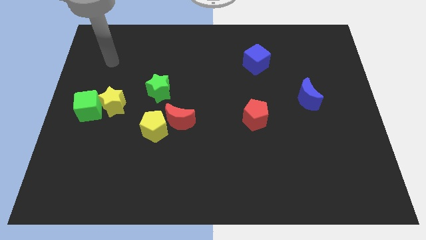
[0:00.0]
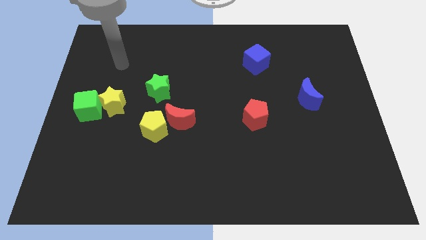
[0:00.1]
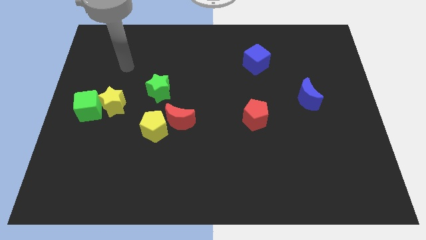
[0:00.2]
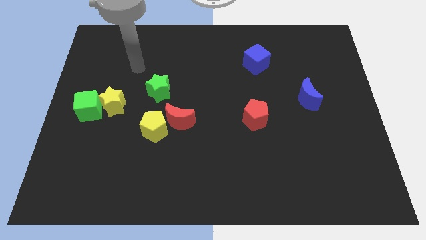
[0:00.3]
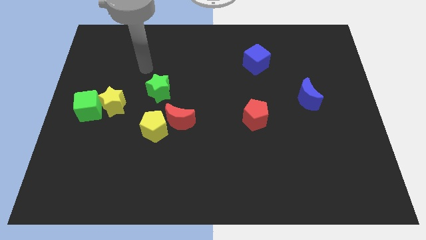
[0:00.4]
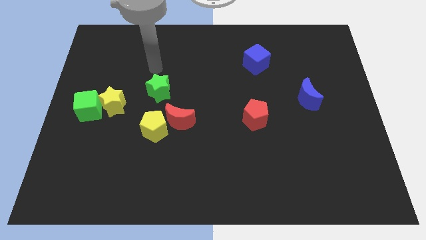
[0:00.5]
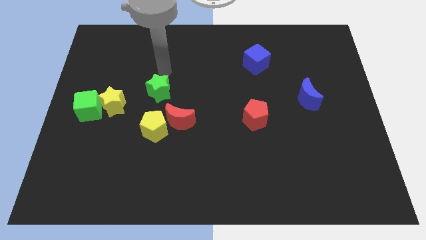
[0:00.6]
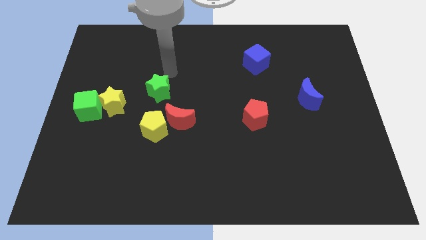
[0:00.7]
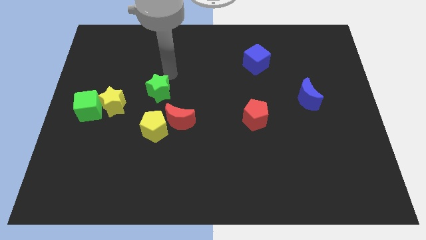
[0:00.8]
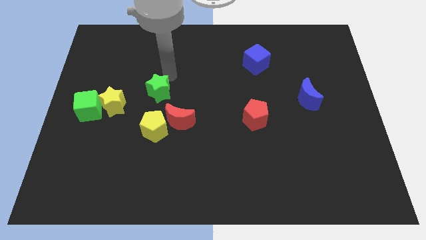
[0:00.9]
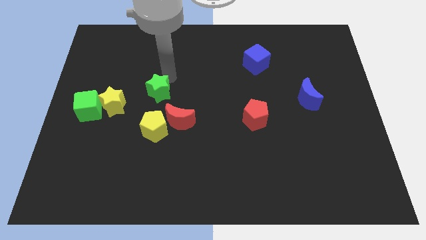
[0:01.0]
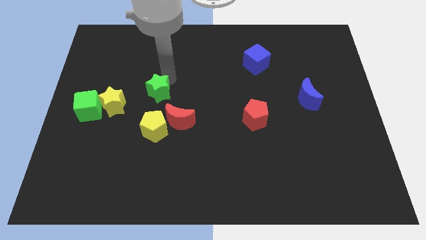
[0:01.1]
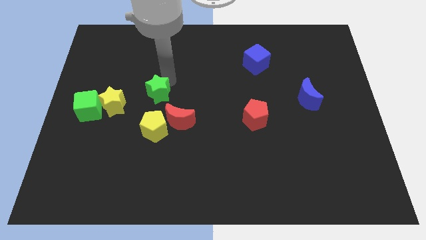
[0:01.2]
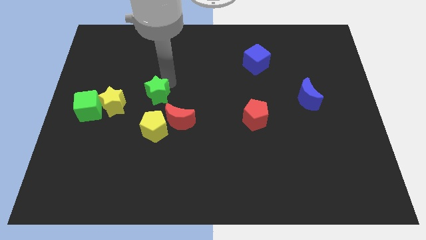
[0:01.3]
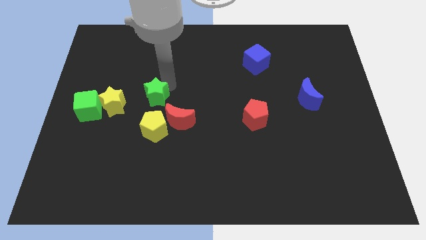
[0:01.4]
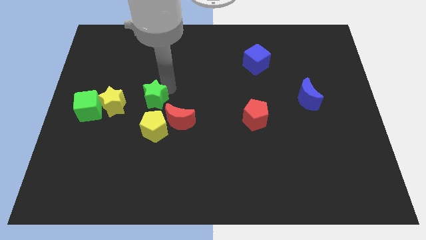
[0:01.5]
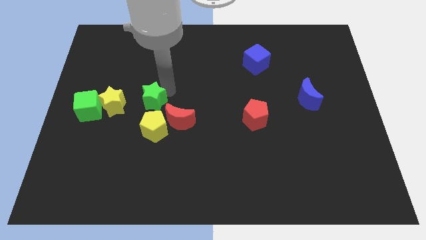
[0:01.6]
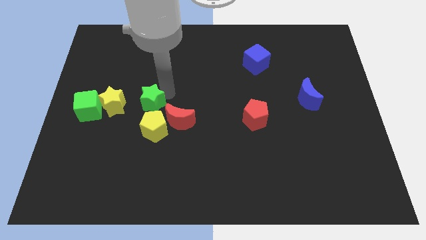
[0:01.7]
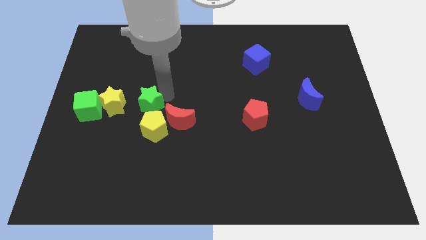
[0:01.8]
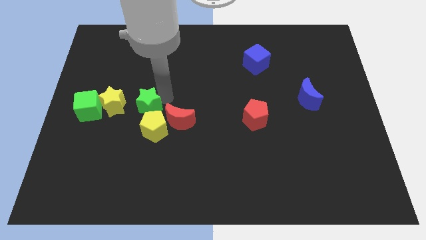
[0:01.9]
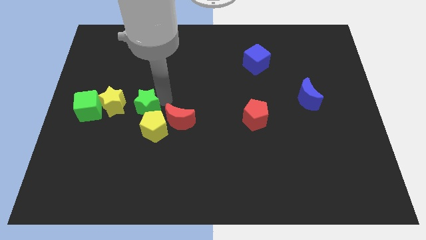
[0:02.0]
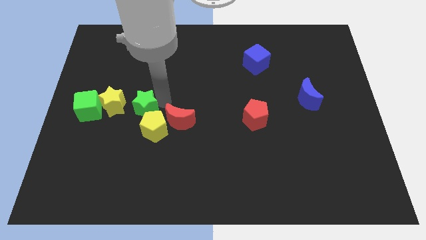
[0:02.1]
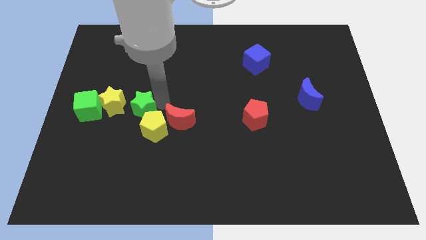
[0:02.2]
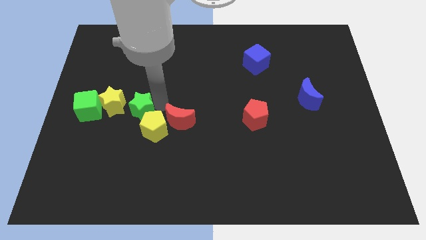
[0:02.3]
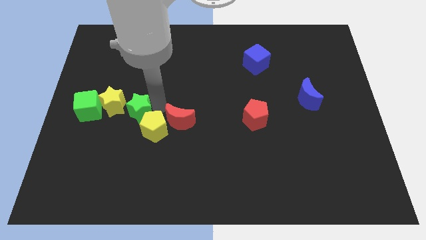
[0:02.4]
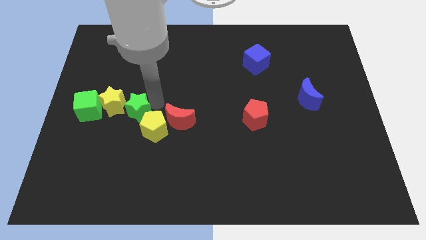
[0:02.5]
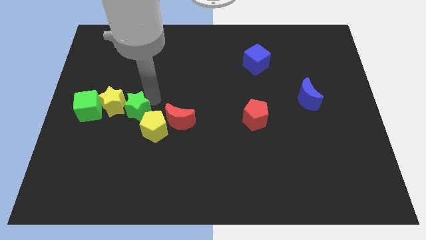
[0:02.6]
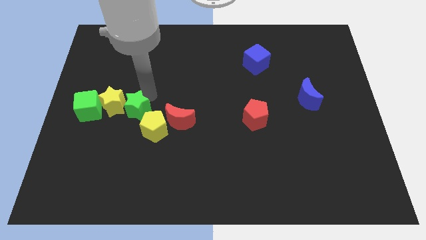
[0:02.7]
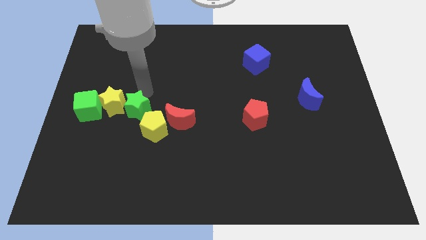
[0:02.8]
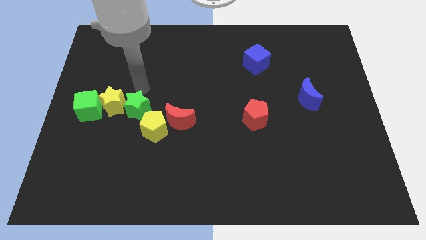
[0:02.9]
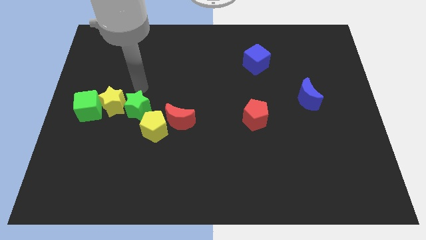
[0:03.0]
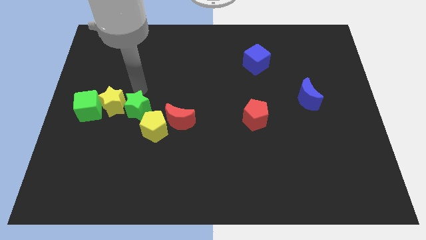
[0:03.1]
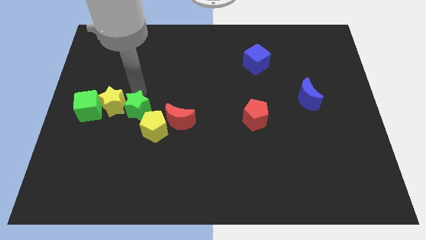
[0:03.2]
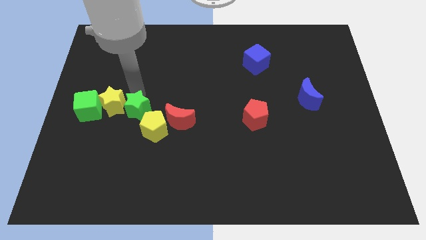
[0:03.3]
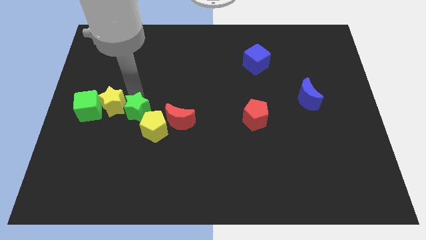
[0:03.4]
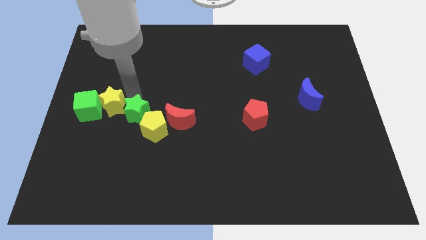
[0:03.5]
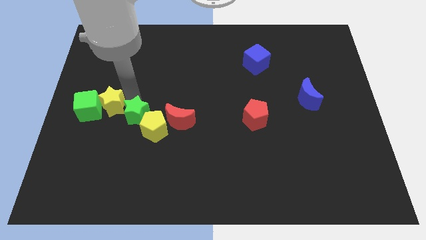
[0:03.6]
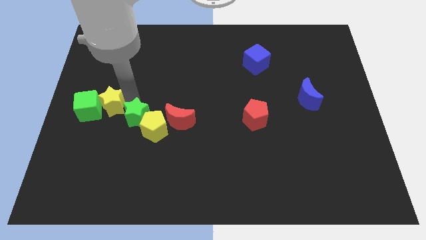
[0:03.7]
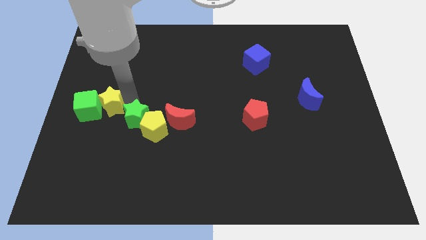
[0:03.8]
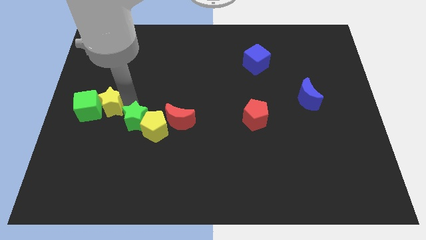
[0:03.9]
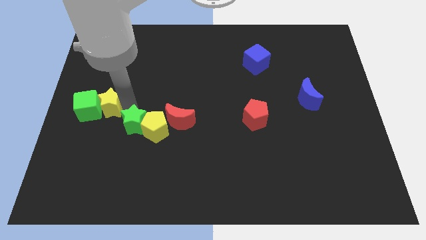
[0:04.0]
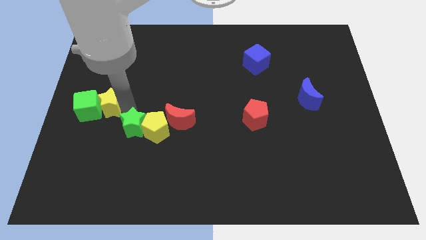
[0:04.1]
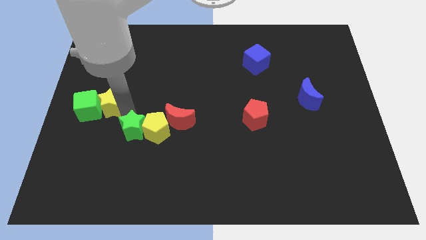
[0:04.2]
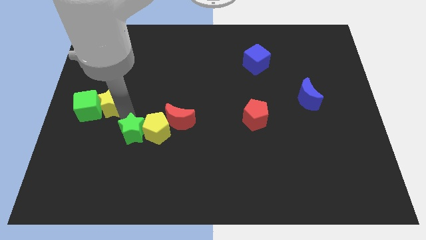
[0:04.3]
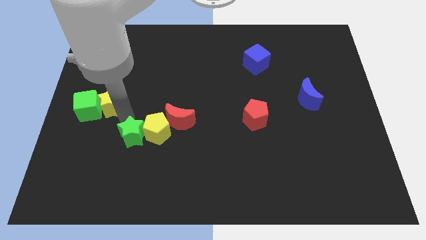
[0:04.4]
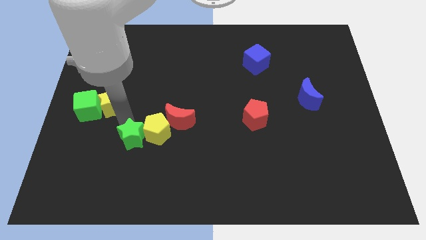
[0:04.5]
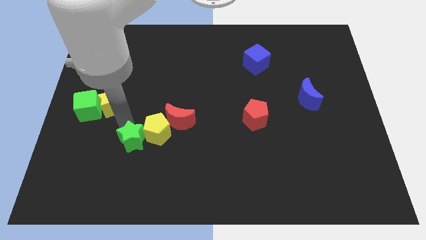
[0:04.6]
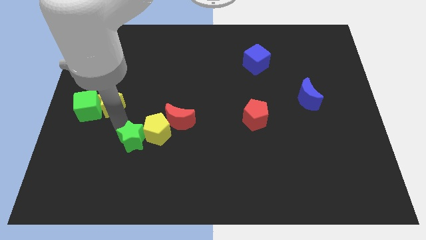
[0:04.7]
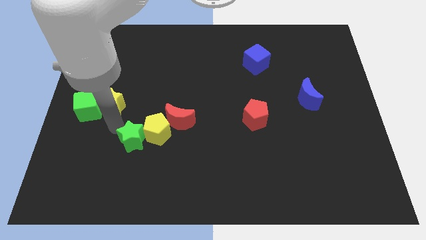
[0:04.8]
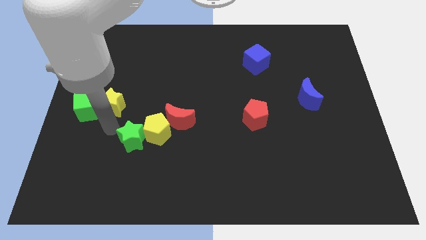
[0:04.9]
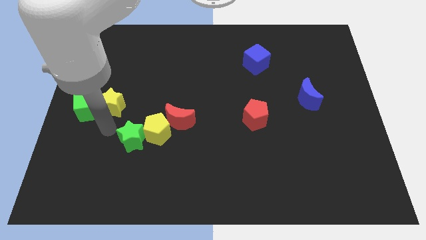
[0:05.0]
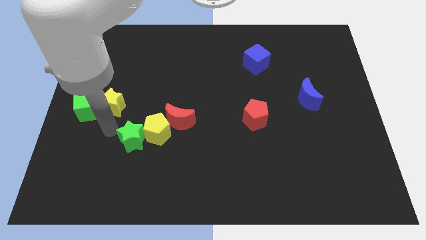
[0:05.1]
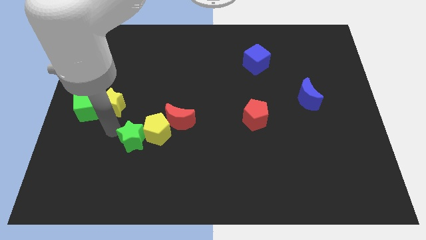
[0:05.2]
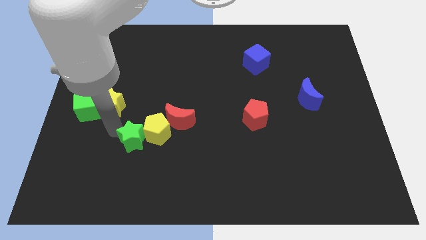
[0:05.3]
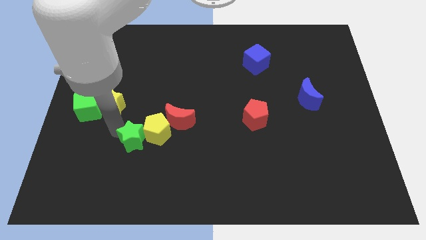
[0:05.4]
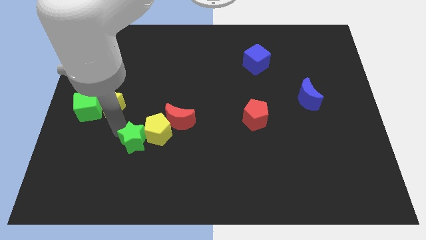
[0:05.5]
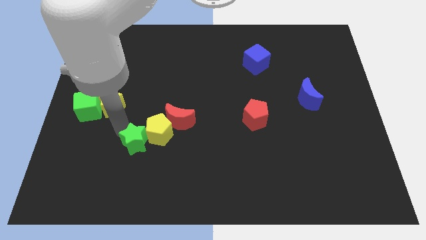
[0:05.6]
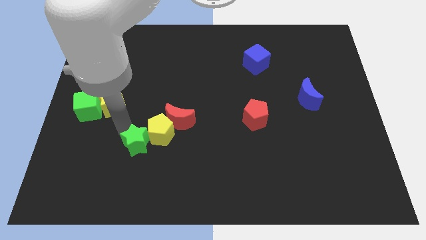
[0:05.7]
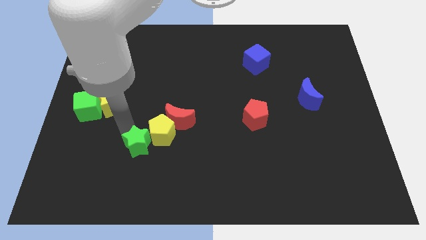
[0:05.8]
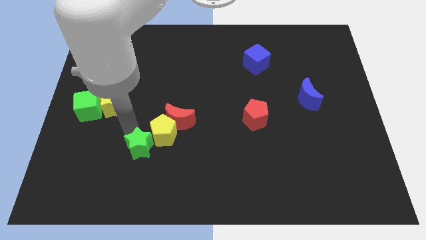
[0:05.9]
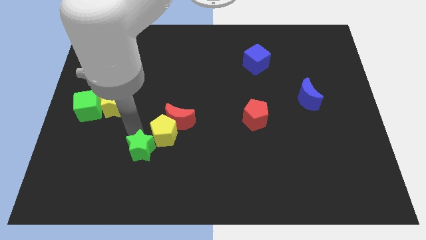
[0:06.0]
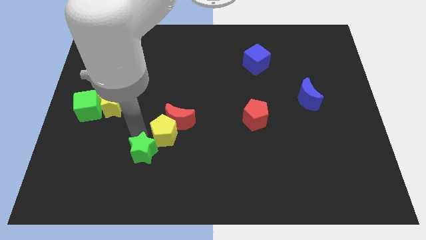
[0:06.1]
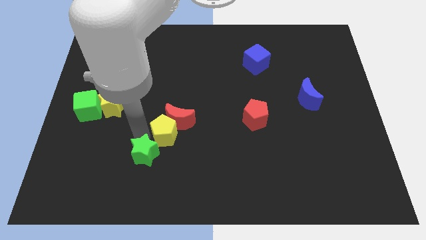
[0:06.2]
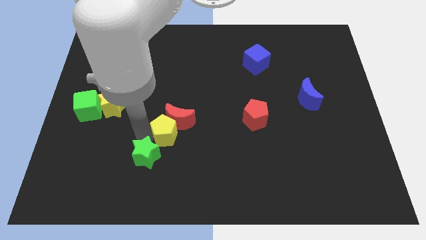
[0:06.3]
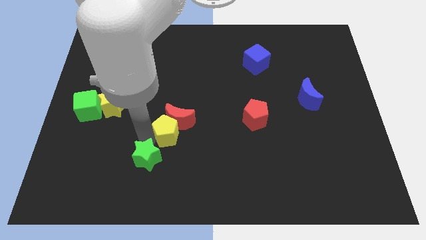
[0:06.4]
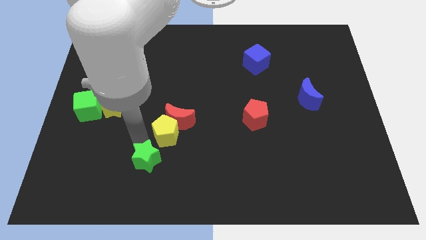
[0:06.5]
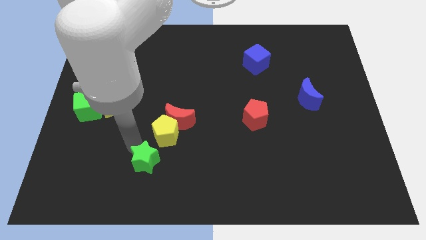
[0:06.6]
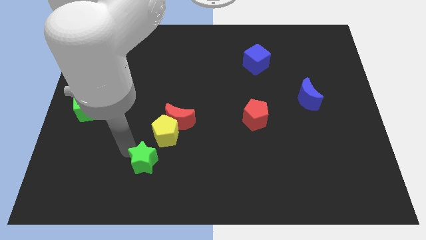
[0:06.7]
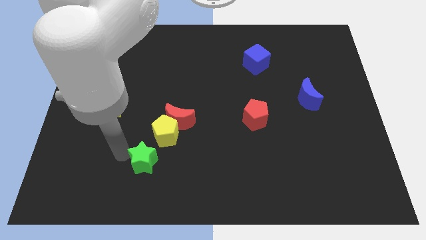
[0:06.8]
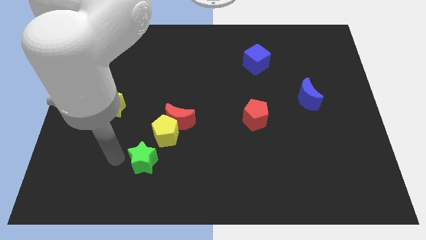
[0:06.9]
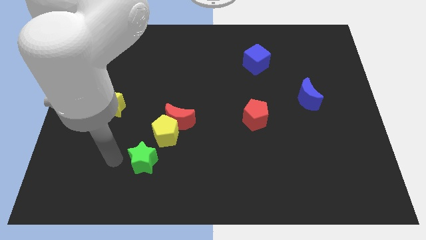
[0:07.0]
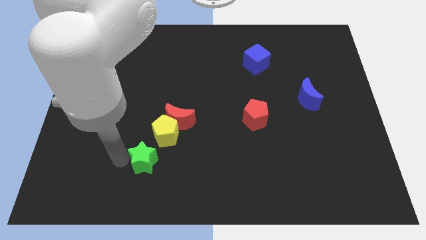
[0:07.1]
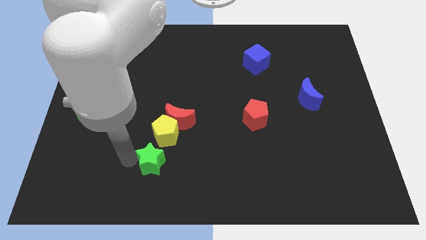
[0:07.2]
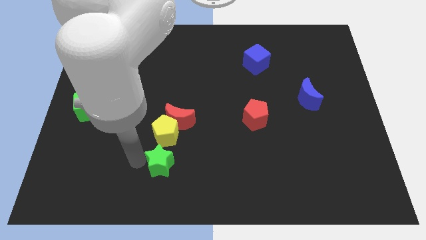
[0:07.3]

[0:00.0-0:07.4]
move the green star to the bottom of the red moon
